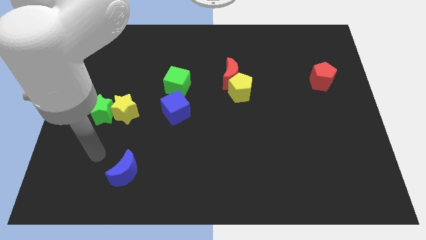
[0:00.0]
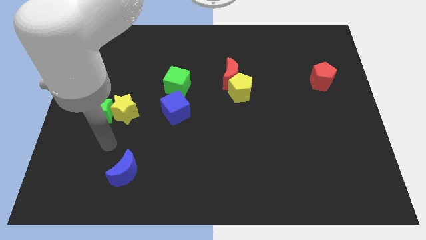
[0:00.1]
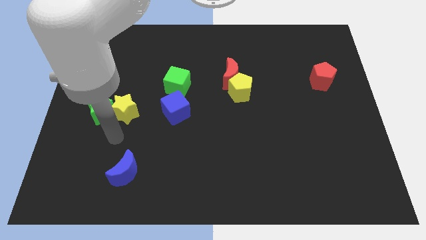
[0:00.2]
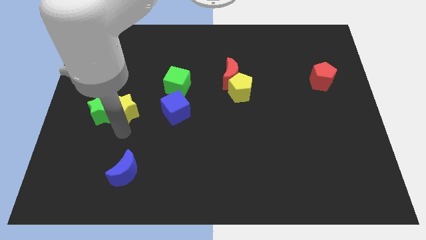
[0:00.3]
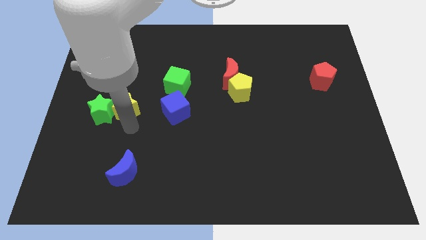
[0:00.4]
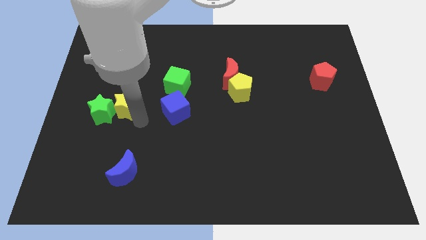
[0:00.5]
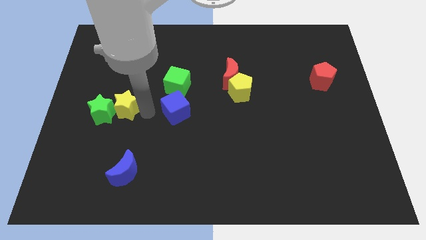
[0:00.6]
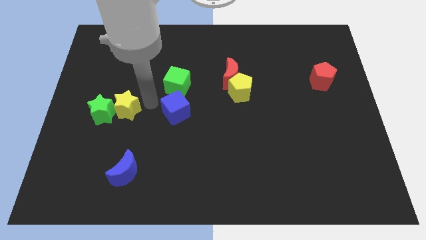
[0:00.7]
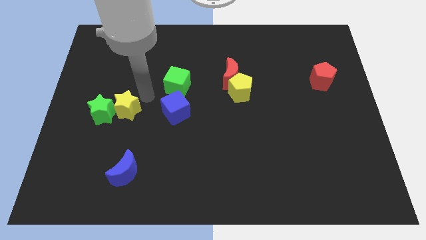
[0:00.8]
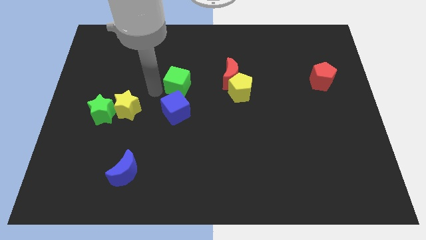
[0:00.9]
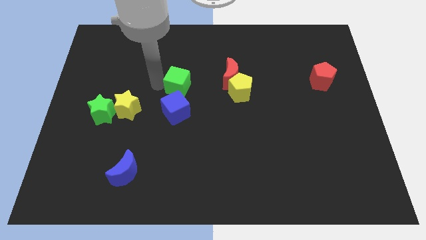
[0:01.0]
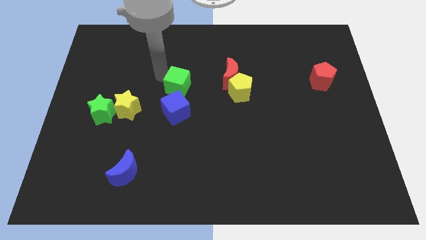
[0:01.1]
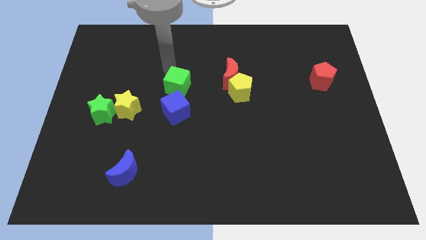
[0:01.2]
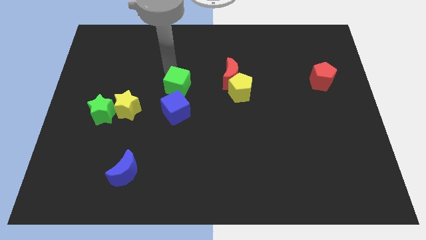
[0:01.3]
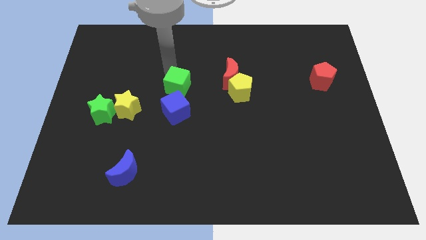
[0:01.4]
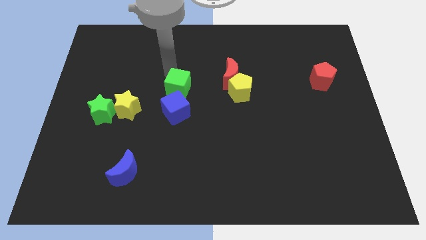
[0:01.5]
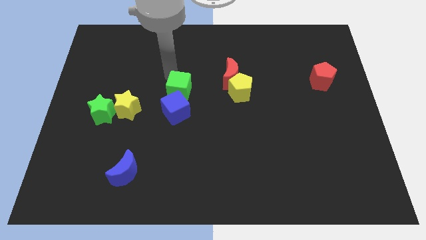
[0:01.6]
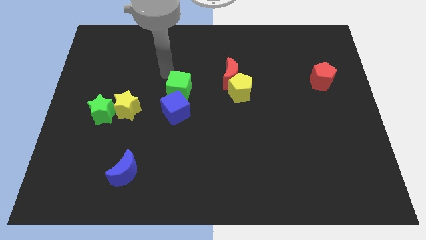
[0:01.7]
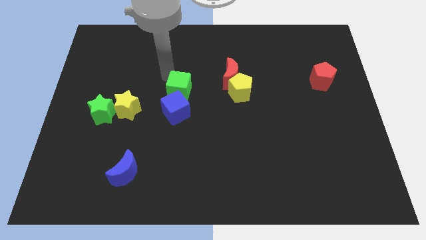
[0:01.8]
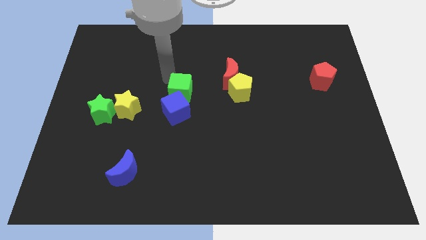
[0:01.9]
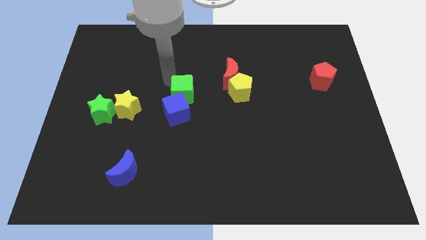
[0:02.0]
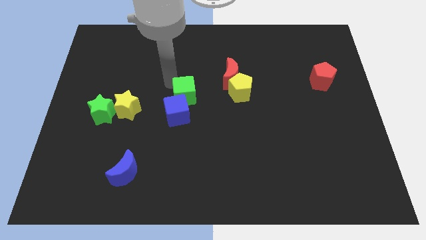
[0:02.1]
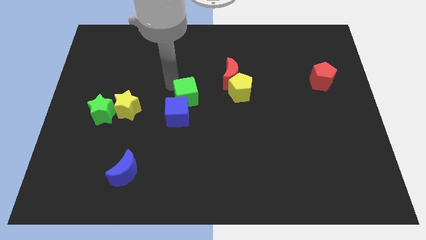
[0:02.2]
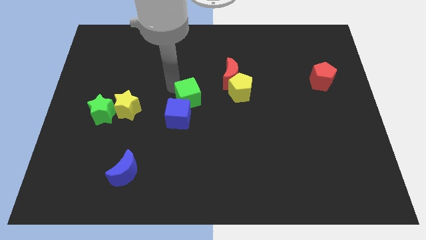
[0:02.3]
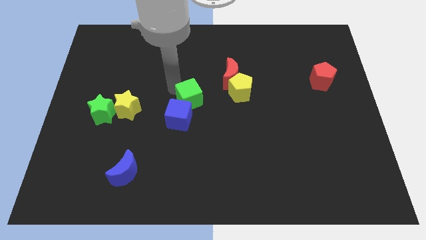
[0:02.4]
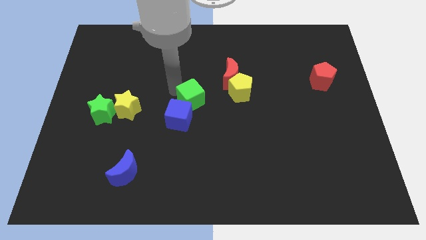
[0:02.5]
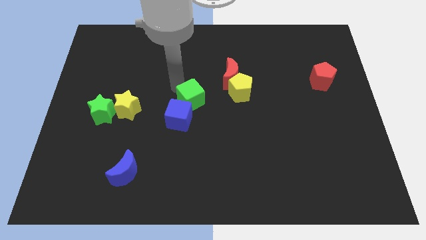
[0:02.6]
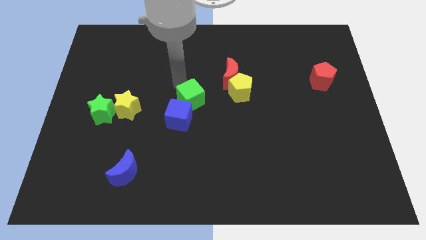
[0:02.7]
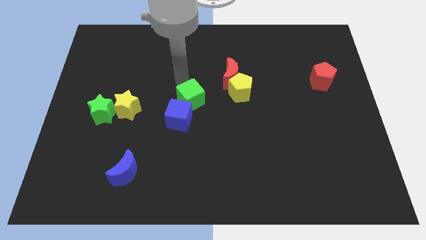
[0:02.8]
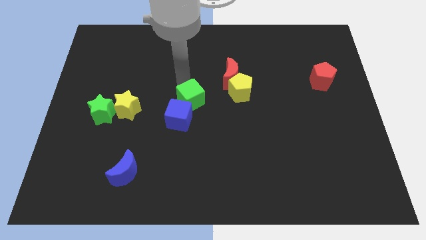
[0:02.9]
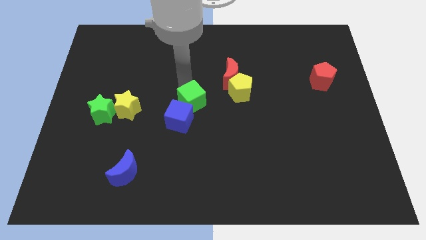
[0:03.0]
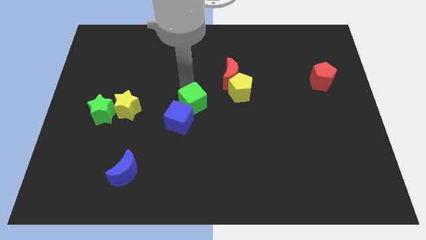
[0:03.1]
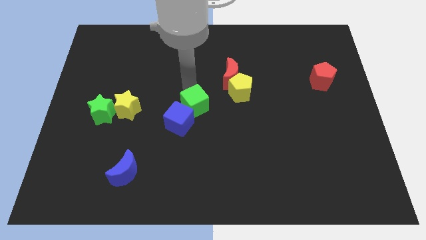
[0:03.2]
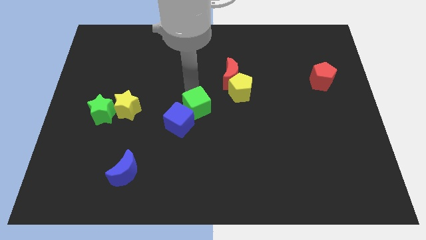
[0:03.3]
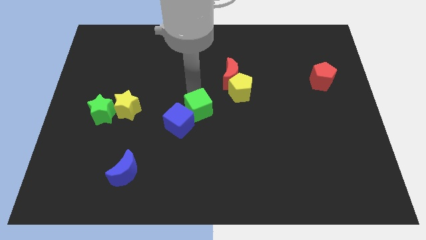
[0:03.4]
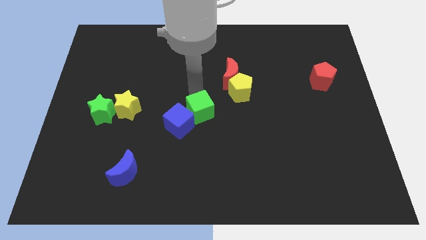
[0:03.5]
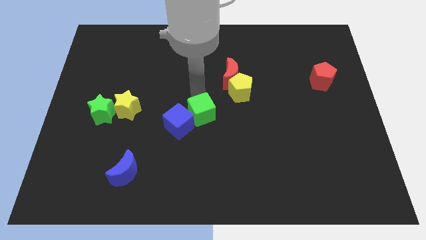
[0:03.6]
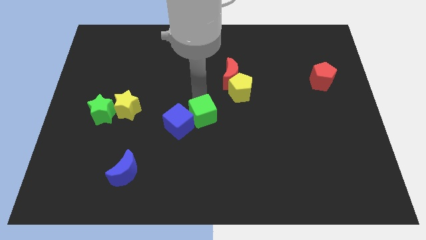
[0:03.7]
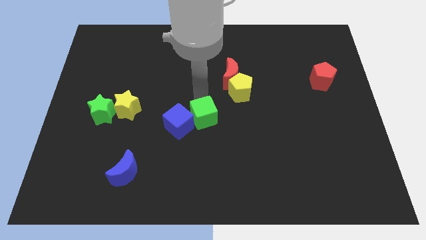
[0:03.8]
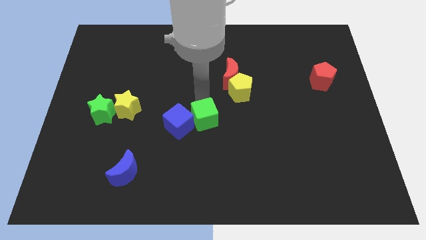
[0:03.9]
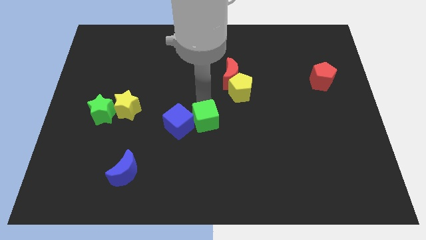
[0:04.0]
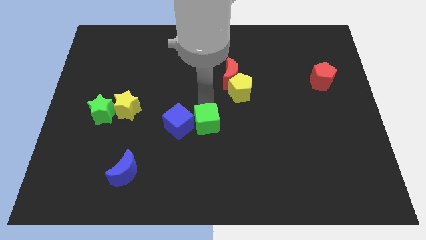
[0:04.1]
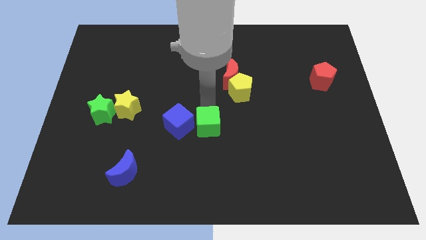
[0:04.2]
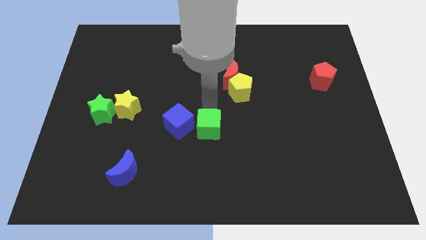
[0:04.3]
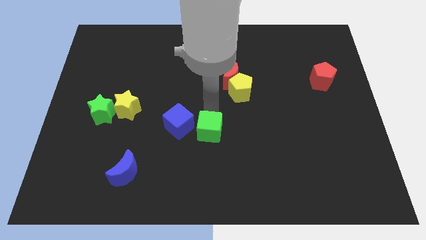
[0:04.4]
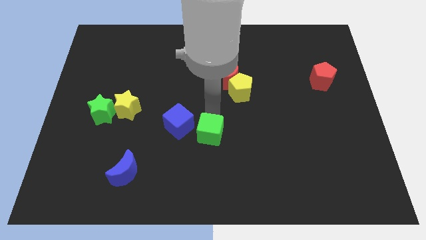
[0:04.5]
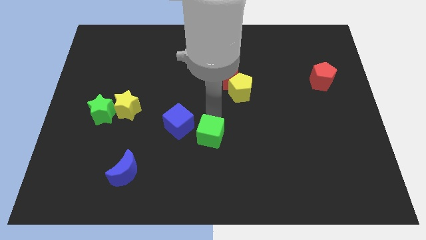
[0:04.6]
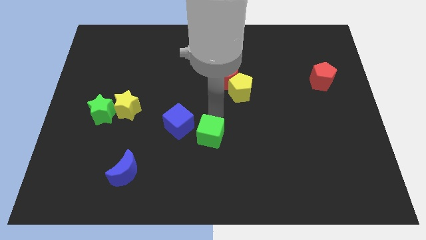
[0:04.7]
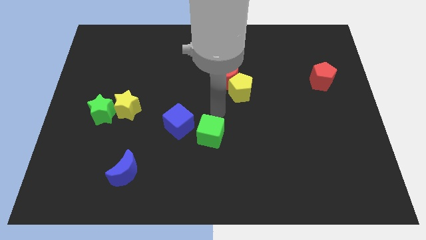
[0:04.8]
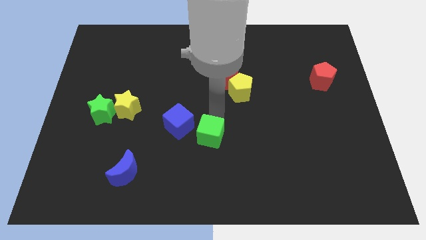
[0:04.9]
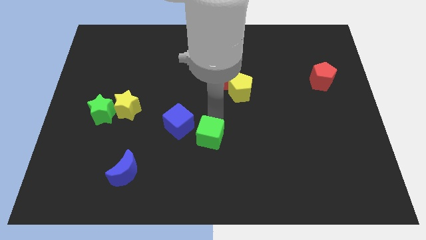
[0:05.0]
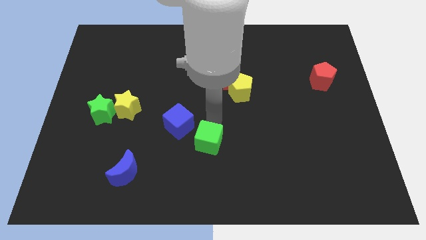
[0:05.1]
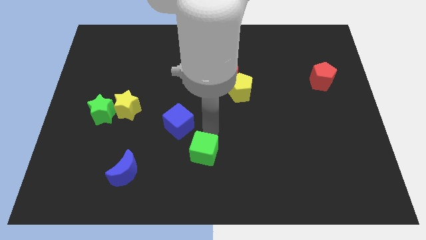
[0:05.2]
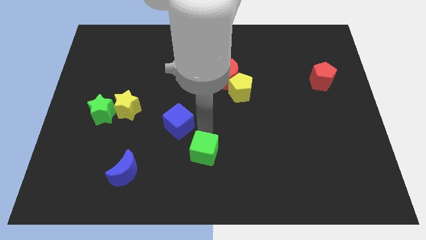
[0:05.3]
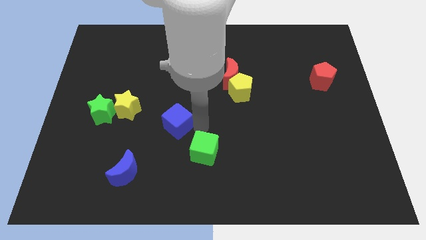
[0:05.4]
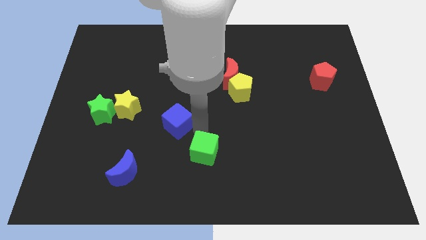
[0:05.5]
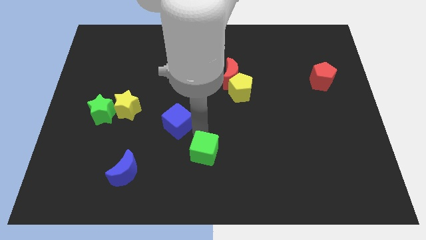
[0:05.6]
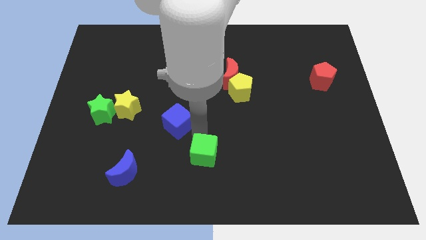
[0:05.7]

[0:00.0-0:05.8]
slide the green cube to the bottom side
